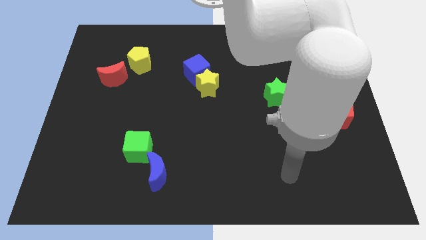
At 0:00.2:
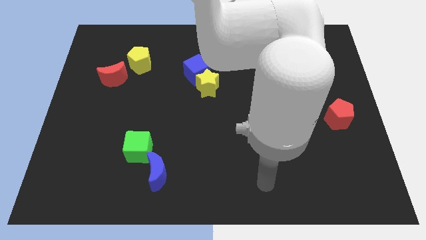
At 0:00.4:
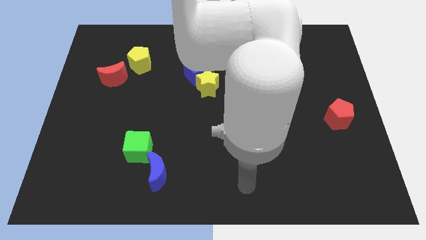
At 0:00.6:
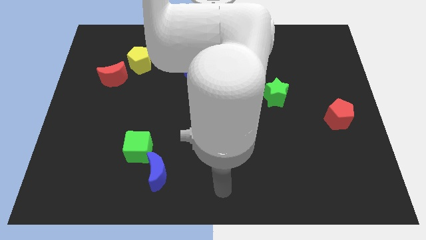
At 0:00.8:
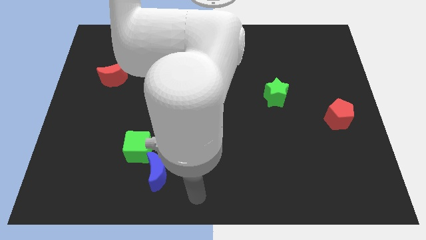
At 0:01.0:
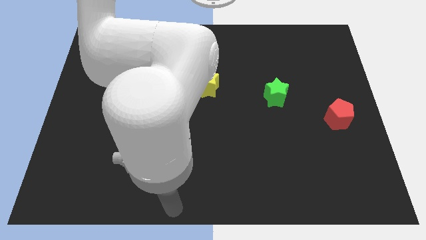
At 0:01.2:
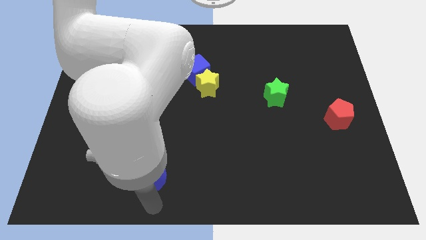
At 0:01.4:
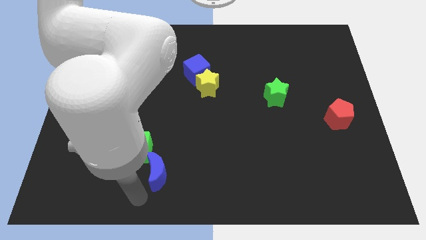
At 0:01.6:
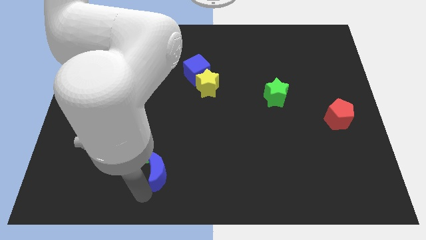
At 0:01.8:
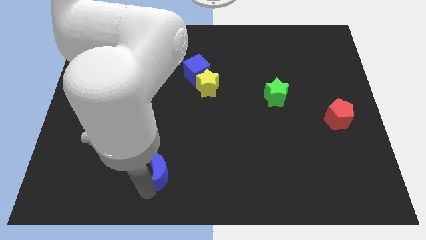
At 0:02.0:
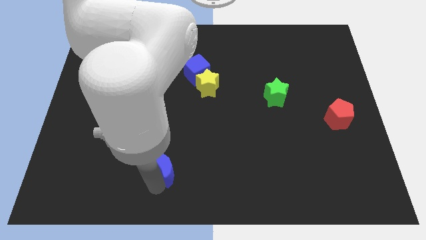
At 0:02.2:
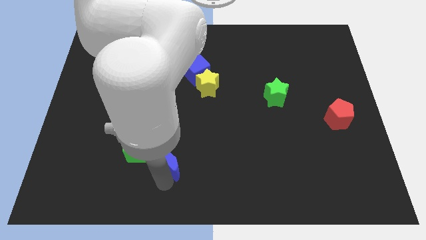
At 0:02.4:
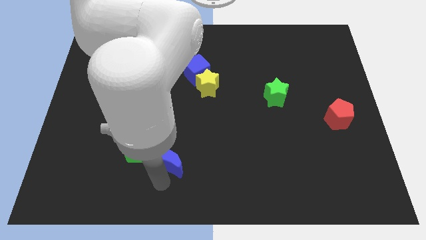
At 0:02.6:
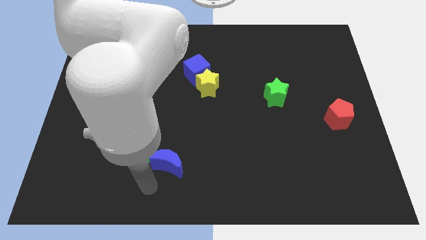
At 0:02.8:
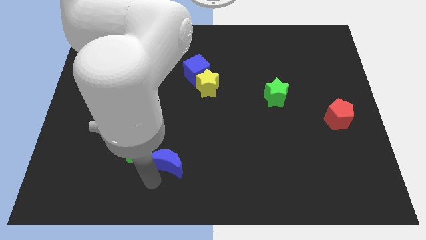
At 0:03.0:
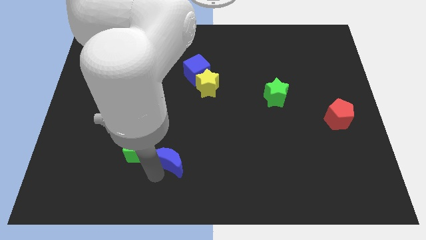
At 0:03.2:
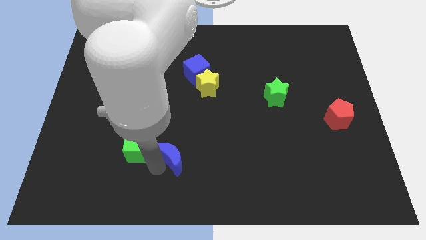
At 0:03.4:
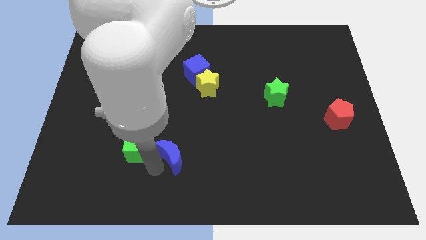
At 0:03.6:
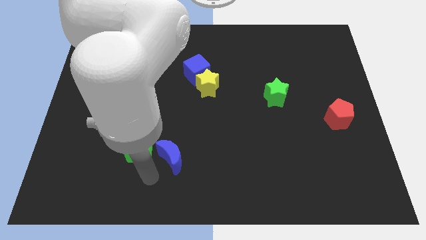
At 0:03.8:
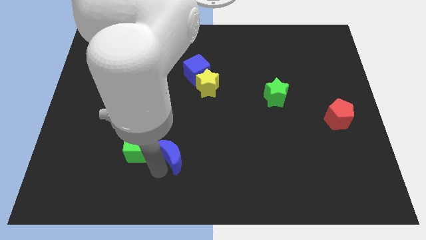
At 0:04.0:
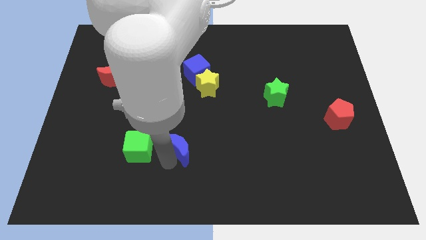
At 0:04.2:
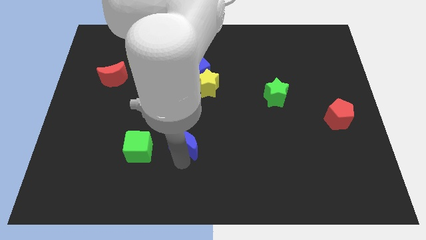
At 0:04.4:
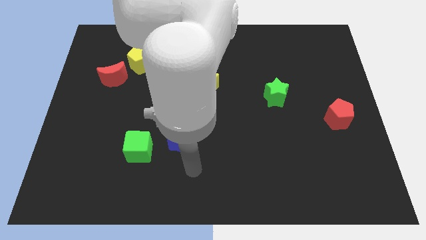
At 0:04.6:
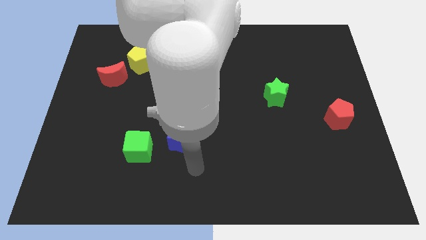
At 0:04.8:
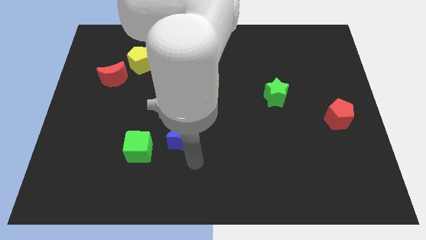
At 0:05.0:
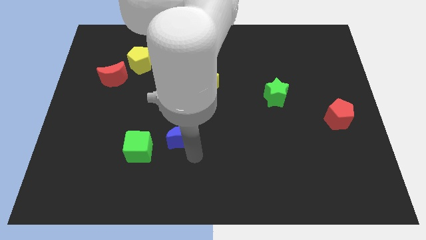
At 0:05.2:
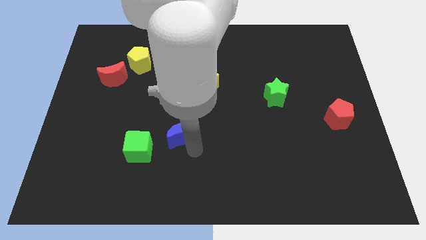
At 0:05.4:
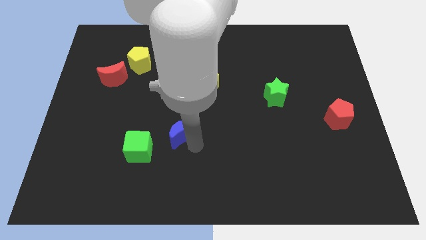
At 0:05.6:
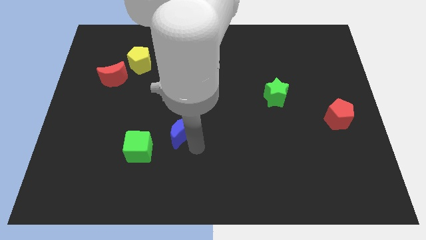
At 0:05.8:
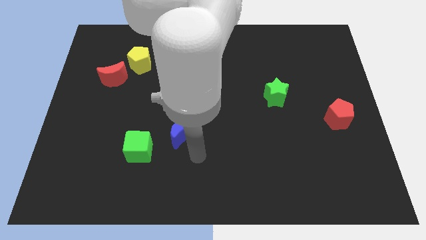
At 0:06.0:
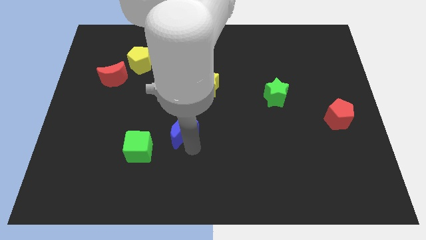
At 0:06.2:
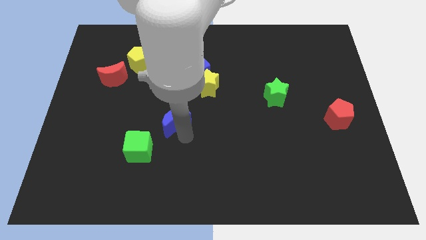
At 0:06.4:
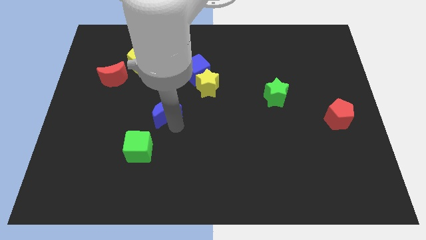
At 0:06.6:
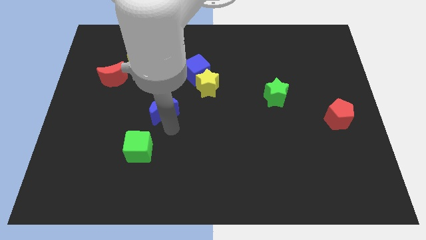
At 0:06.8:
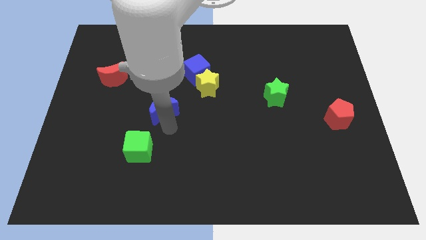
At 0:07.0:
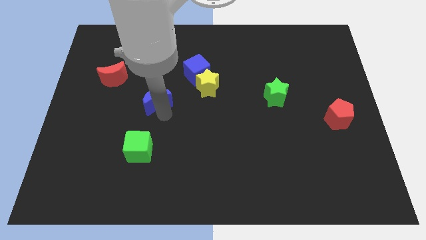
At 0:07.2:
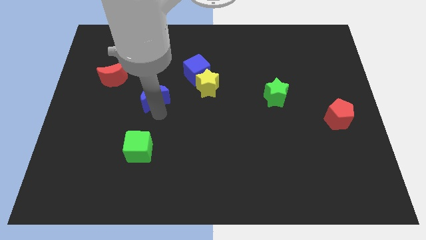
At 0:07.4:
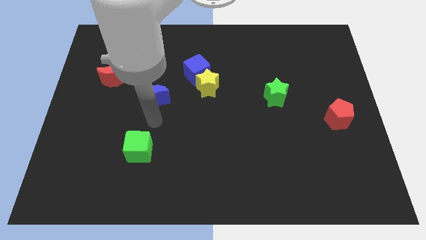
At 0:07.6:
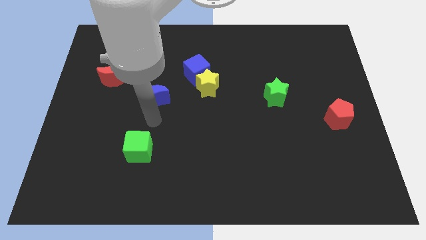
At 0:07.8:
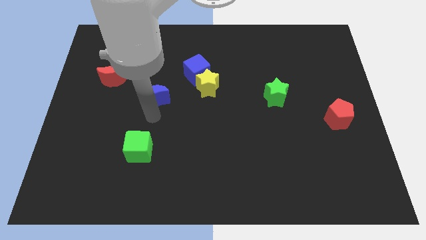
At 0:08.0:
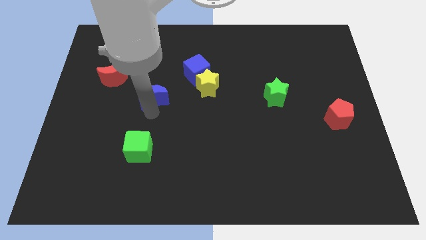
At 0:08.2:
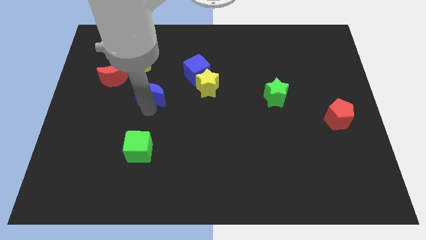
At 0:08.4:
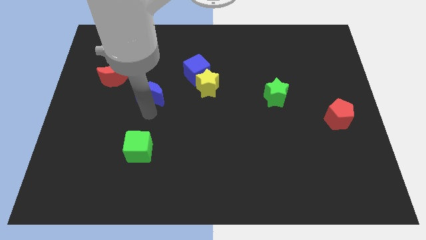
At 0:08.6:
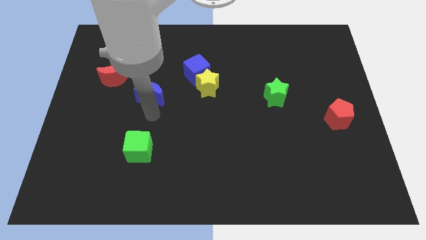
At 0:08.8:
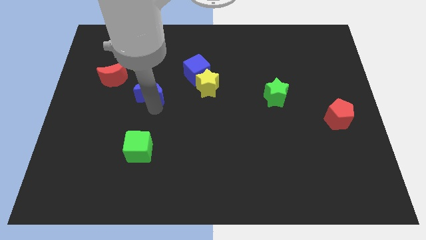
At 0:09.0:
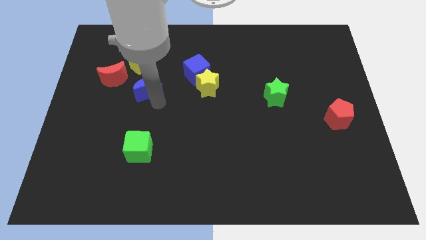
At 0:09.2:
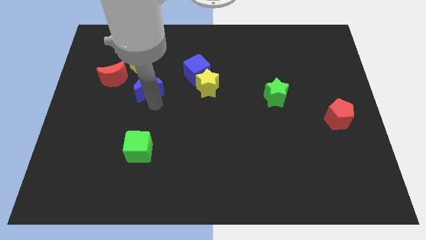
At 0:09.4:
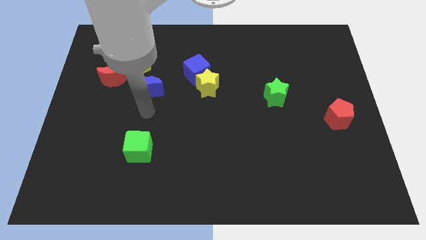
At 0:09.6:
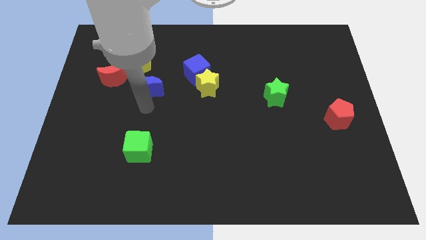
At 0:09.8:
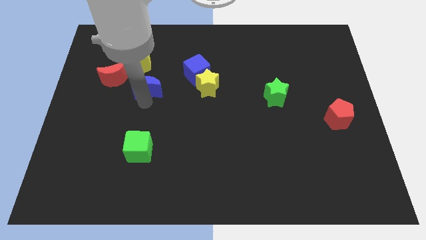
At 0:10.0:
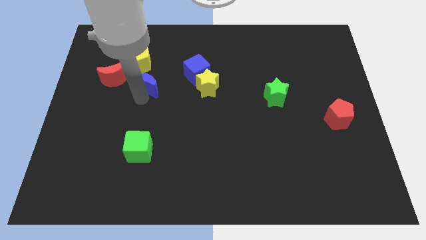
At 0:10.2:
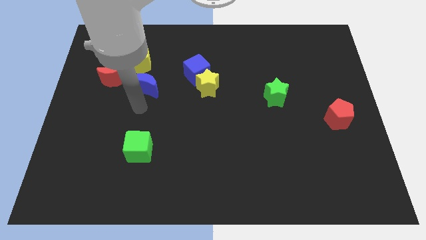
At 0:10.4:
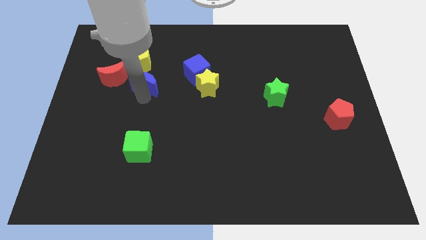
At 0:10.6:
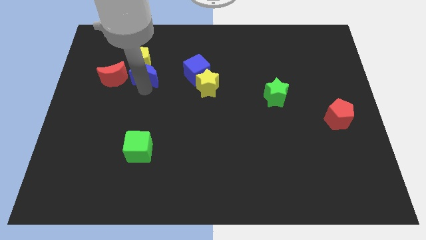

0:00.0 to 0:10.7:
slide the blue moon to the yellow pentagon

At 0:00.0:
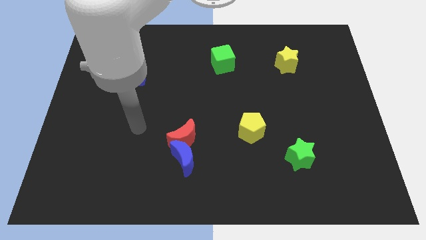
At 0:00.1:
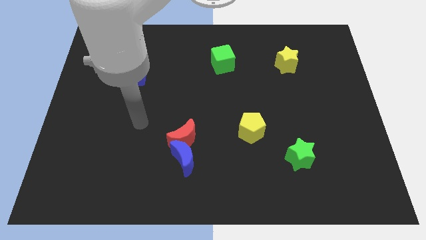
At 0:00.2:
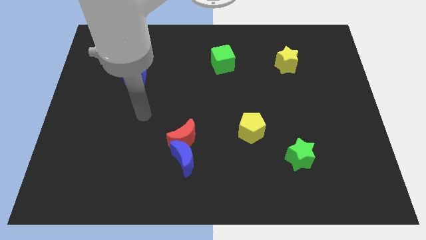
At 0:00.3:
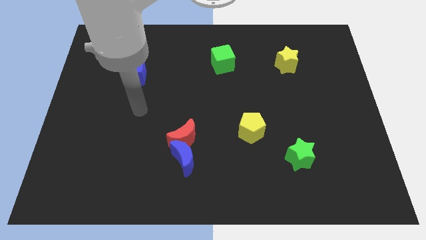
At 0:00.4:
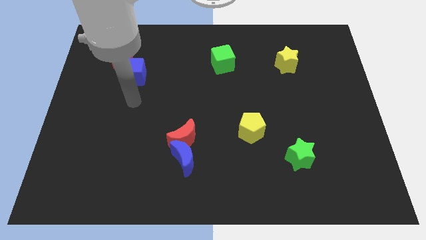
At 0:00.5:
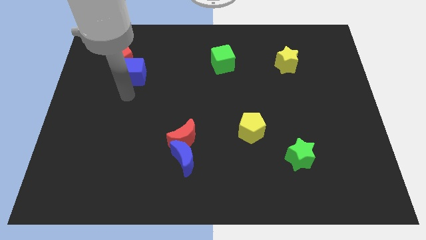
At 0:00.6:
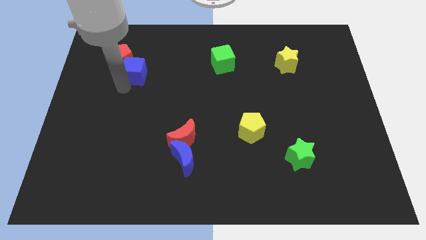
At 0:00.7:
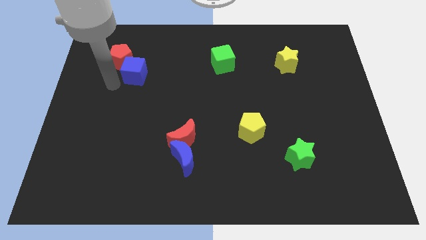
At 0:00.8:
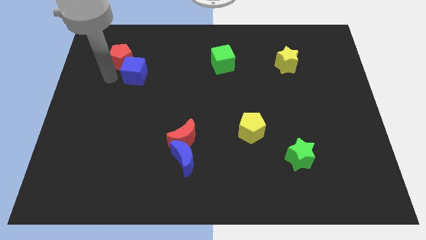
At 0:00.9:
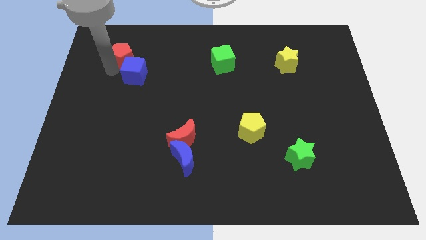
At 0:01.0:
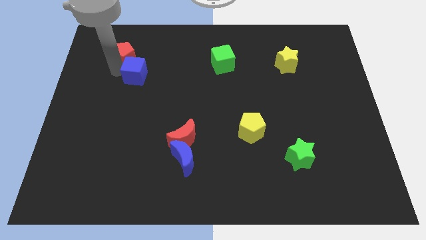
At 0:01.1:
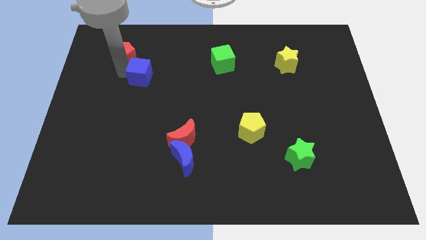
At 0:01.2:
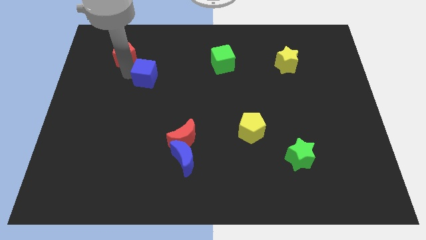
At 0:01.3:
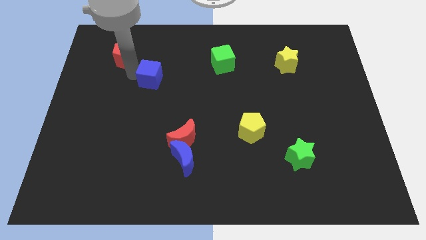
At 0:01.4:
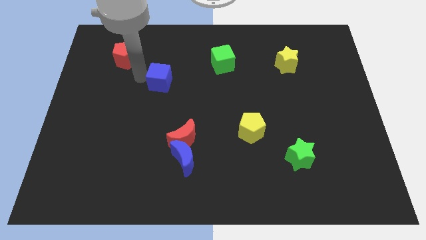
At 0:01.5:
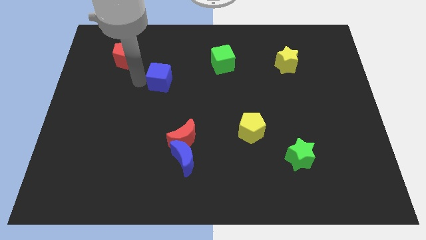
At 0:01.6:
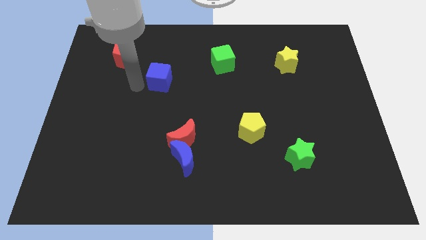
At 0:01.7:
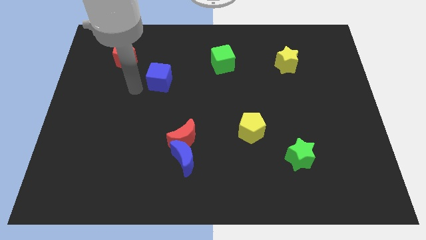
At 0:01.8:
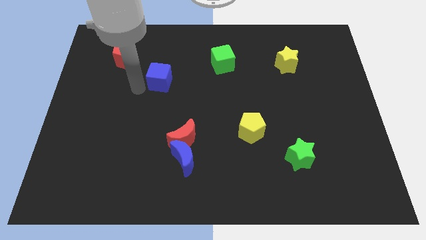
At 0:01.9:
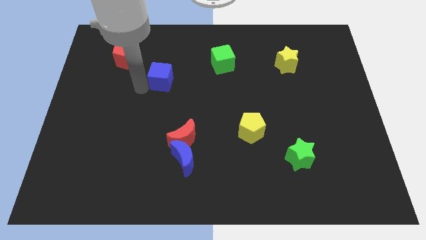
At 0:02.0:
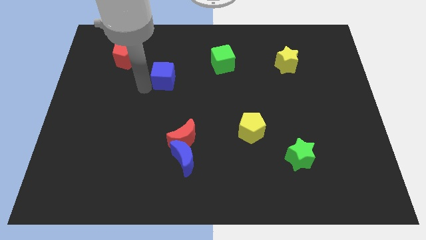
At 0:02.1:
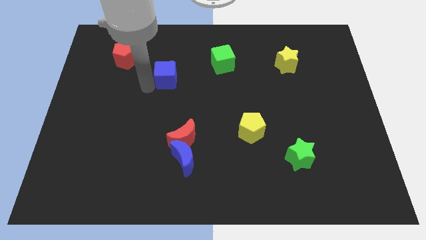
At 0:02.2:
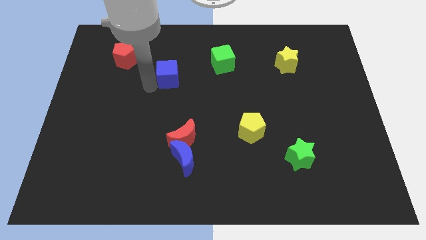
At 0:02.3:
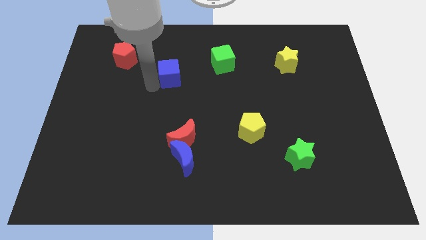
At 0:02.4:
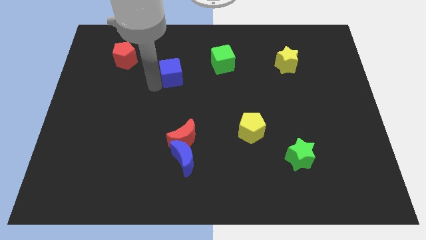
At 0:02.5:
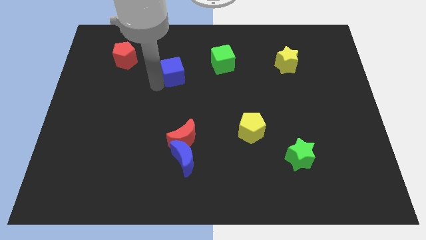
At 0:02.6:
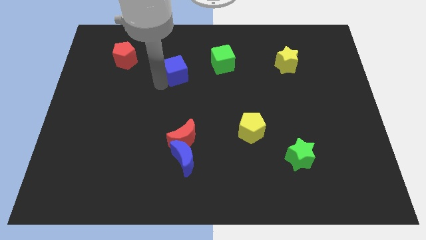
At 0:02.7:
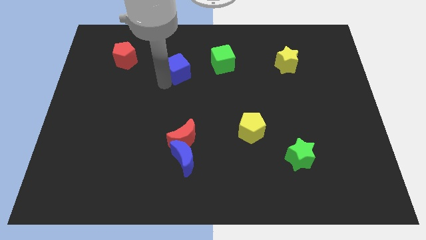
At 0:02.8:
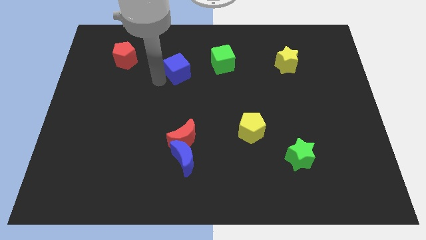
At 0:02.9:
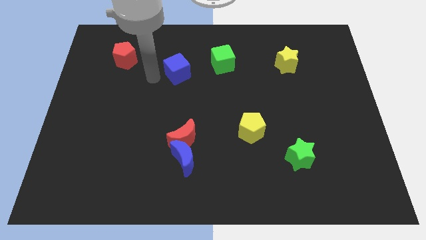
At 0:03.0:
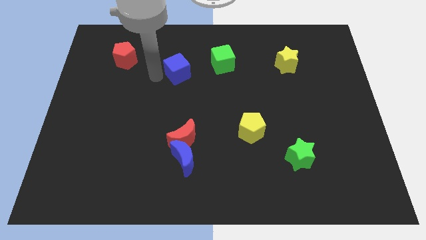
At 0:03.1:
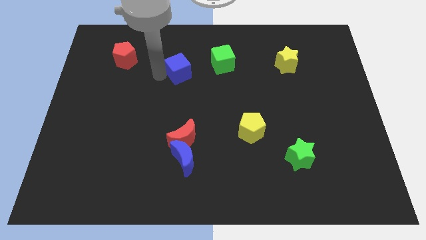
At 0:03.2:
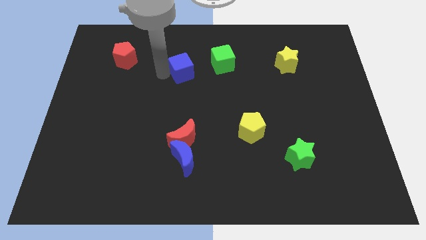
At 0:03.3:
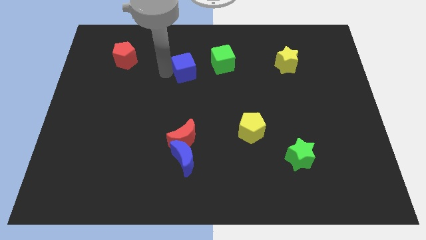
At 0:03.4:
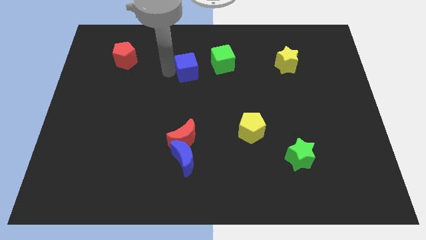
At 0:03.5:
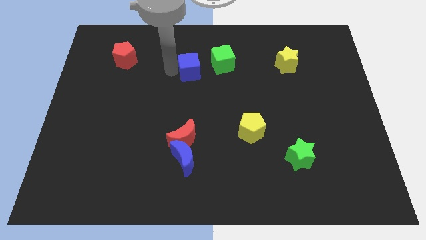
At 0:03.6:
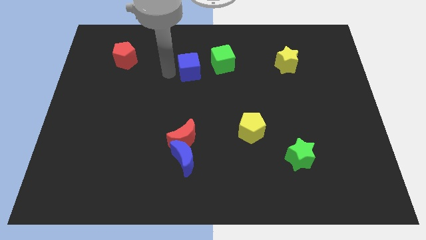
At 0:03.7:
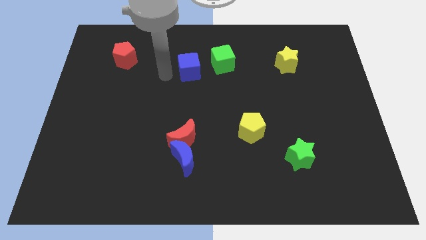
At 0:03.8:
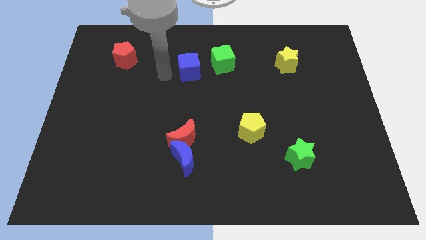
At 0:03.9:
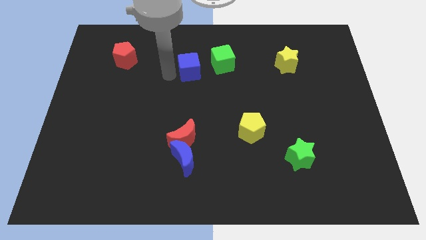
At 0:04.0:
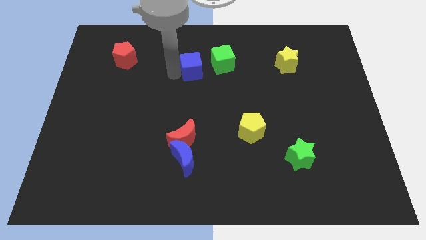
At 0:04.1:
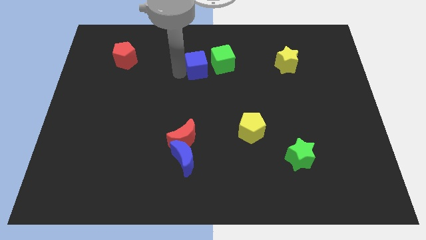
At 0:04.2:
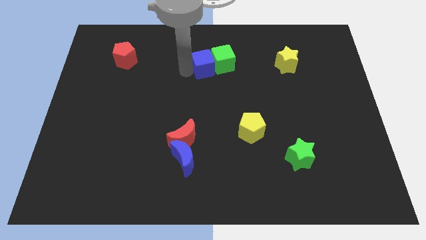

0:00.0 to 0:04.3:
put the blue cube close to the green cube
